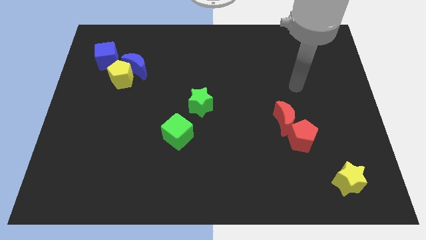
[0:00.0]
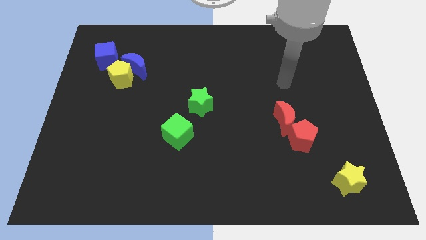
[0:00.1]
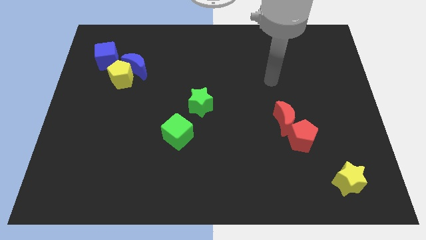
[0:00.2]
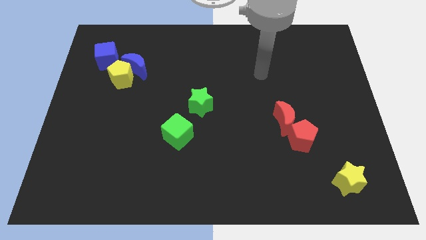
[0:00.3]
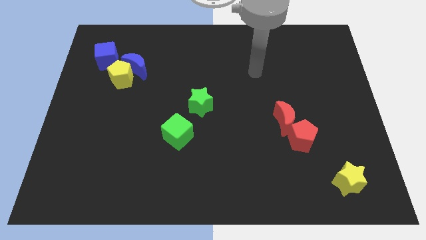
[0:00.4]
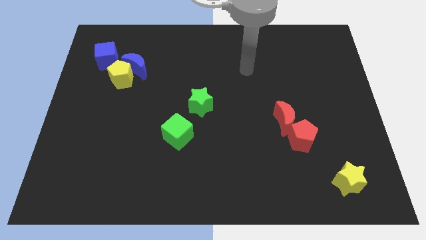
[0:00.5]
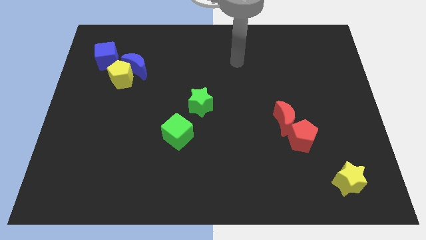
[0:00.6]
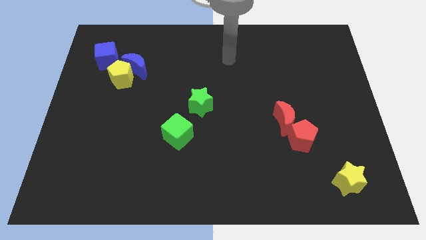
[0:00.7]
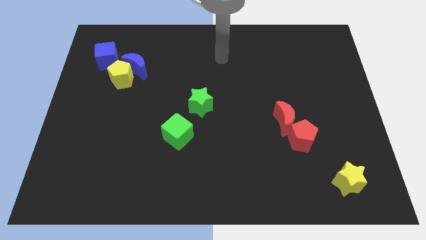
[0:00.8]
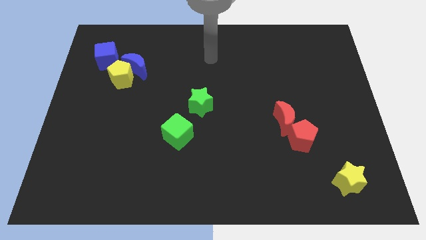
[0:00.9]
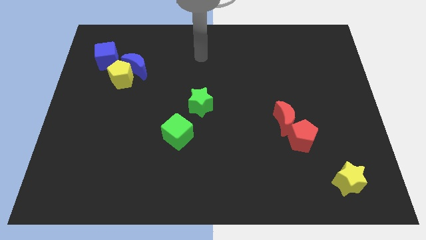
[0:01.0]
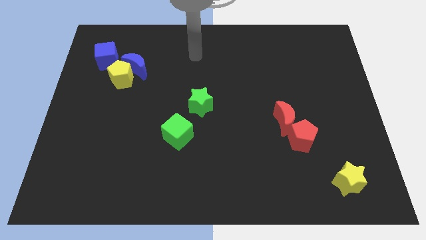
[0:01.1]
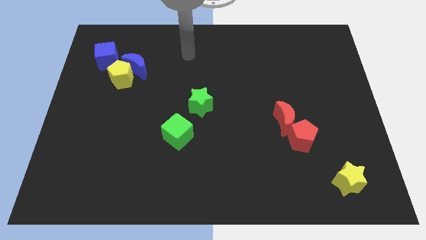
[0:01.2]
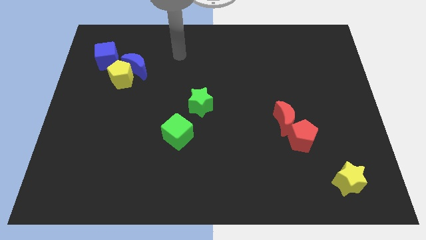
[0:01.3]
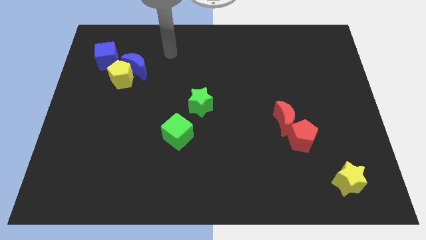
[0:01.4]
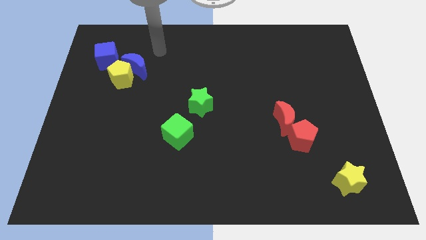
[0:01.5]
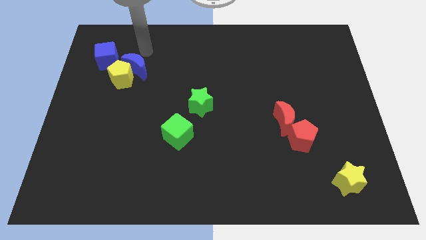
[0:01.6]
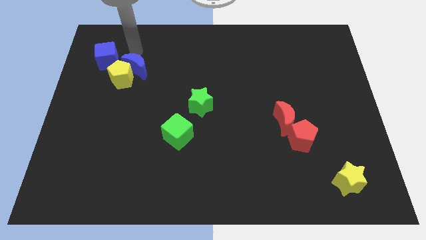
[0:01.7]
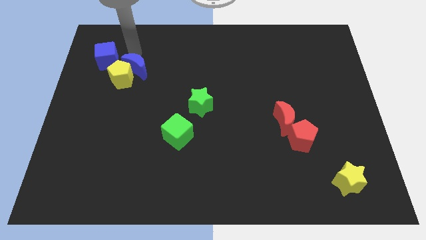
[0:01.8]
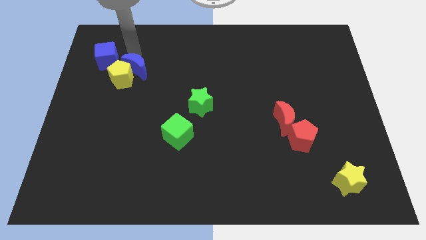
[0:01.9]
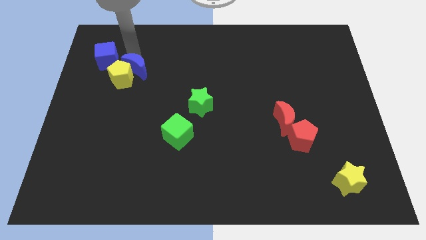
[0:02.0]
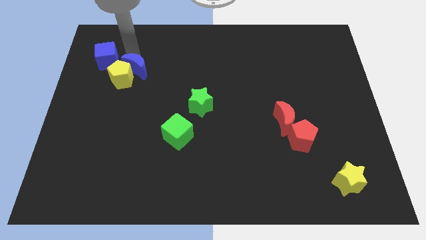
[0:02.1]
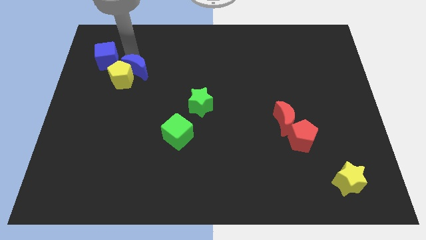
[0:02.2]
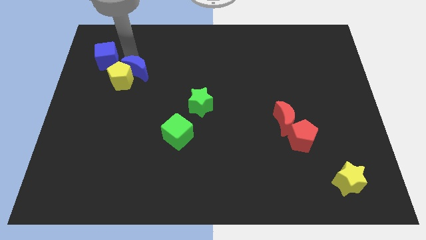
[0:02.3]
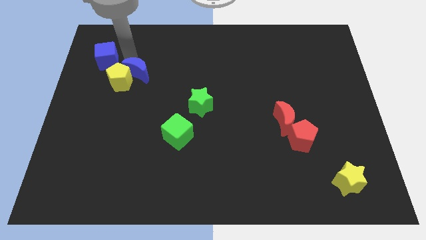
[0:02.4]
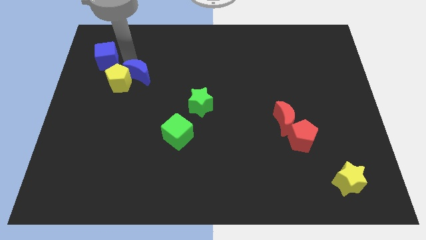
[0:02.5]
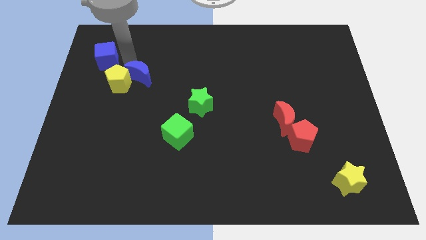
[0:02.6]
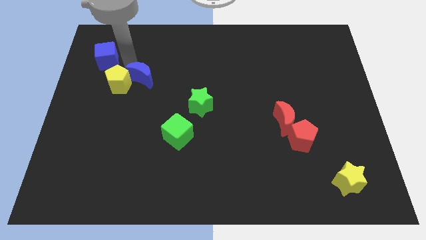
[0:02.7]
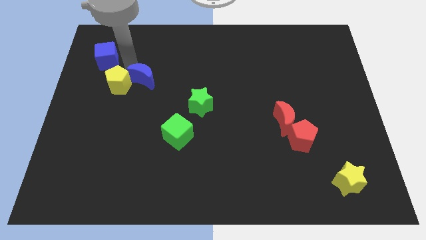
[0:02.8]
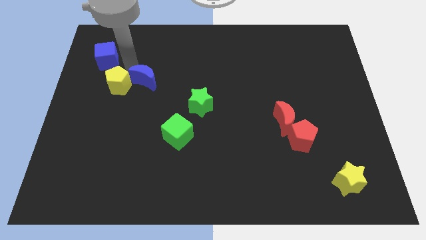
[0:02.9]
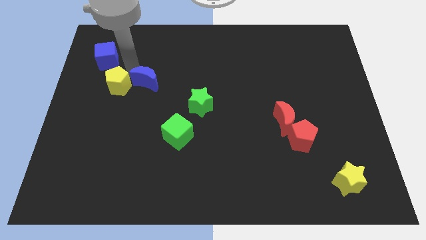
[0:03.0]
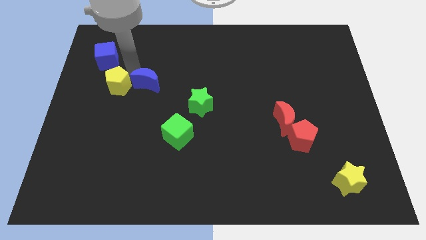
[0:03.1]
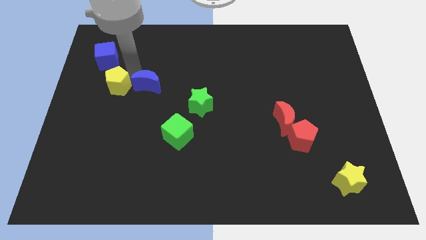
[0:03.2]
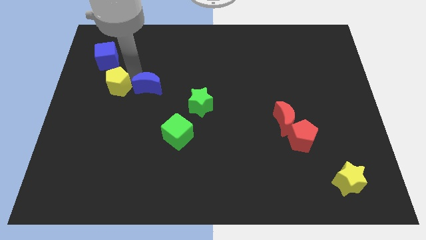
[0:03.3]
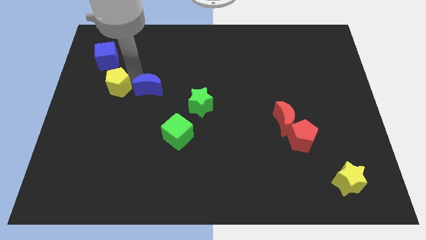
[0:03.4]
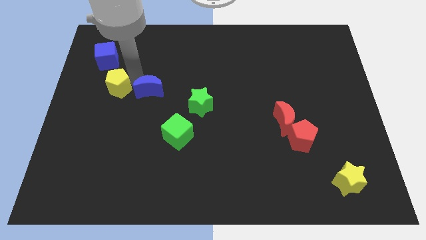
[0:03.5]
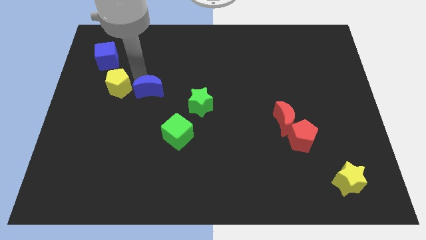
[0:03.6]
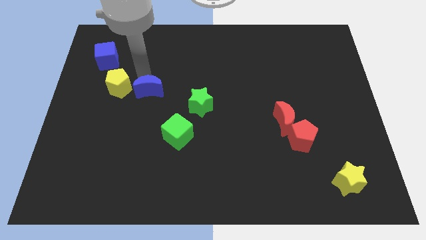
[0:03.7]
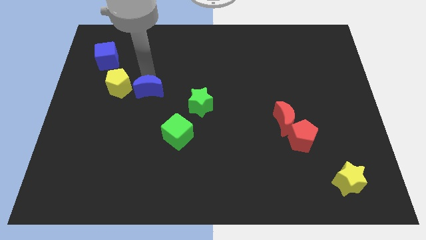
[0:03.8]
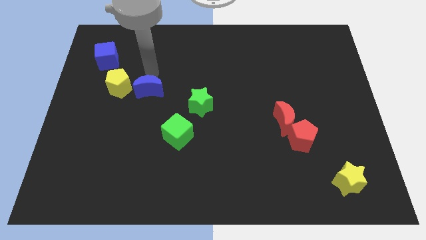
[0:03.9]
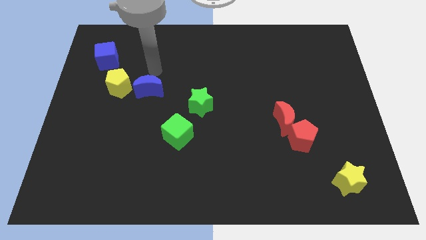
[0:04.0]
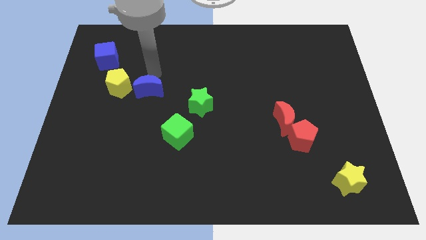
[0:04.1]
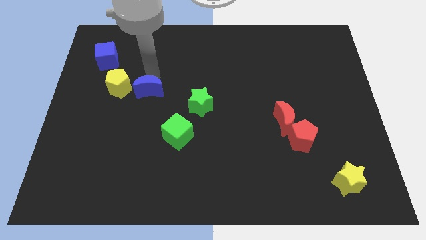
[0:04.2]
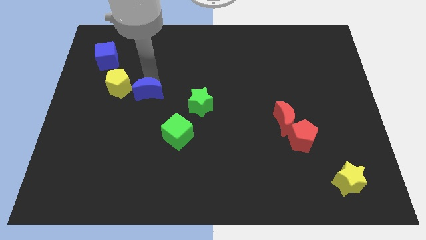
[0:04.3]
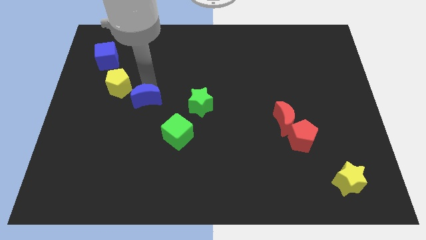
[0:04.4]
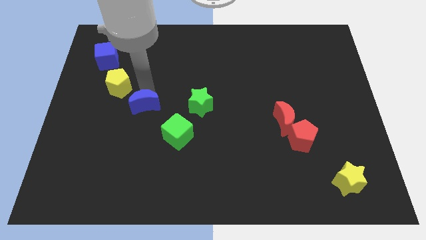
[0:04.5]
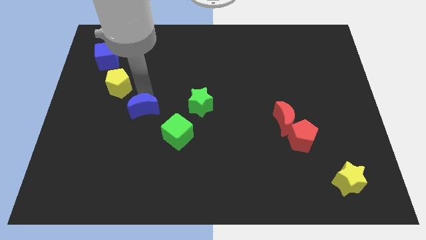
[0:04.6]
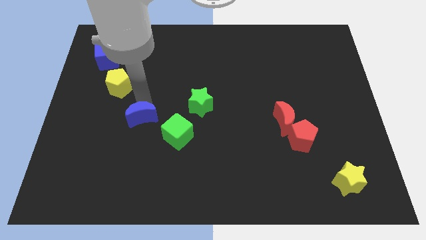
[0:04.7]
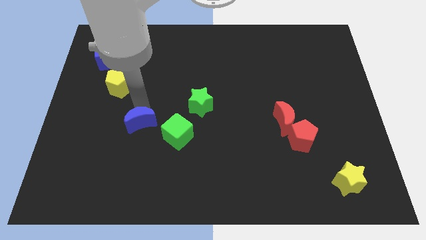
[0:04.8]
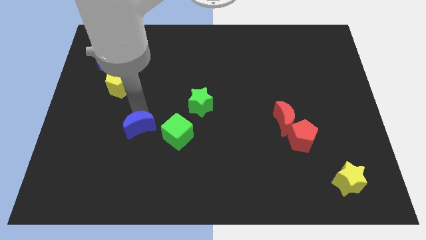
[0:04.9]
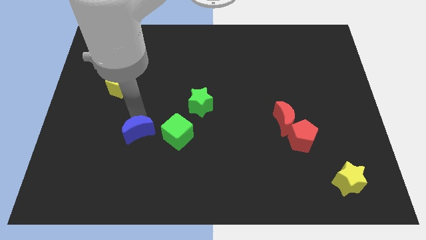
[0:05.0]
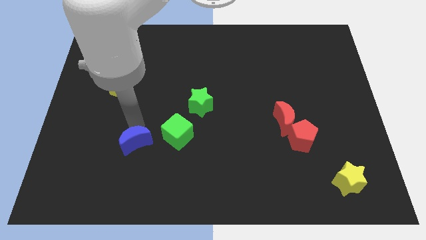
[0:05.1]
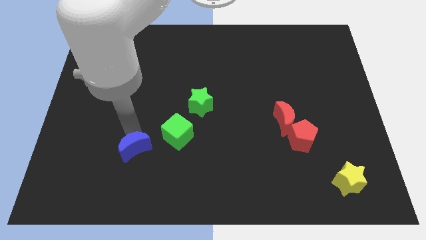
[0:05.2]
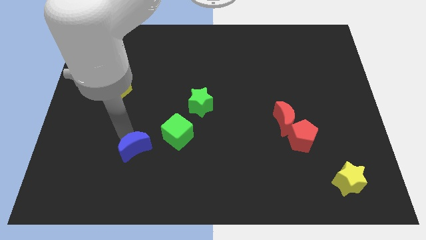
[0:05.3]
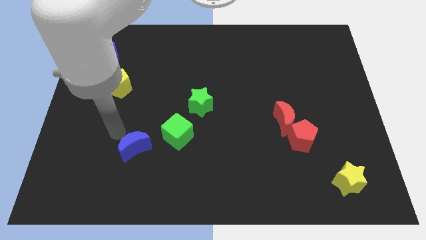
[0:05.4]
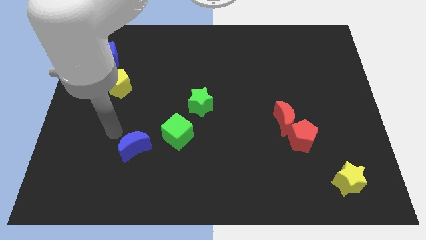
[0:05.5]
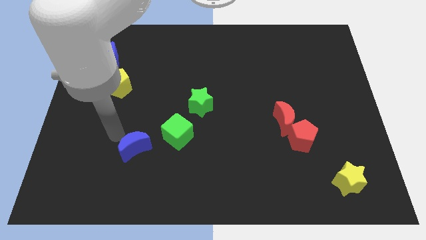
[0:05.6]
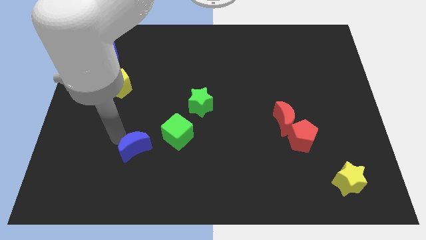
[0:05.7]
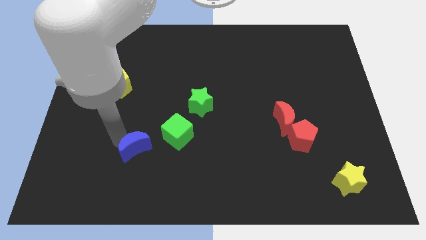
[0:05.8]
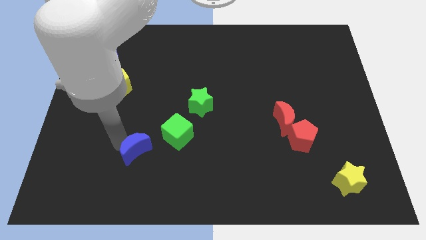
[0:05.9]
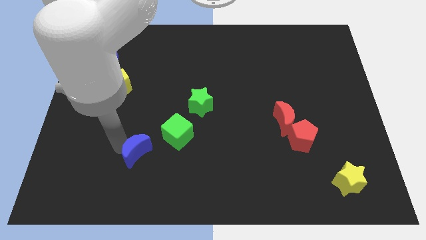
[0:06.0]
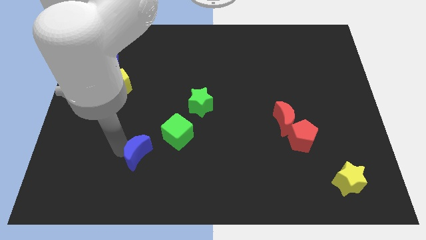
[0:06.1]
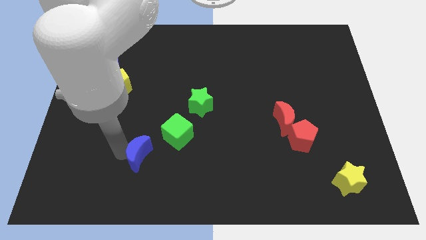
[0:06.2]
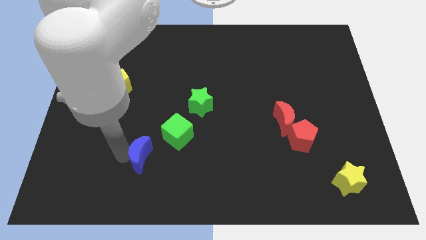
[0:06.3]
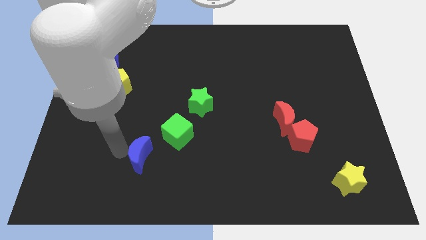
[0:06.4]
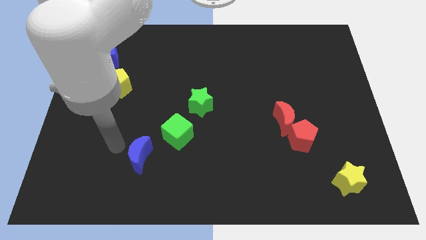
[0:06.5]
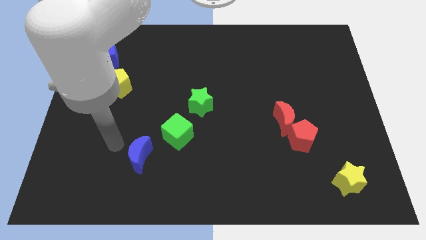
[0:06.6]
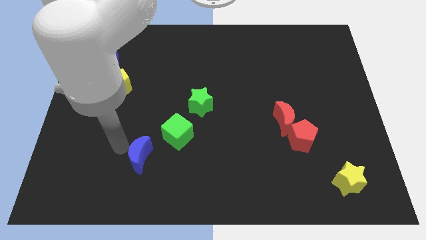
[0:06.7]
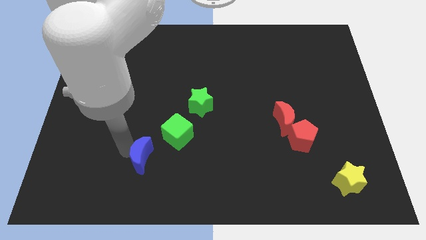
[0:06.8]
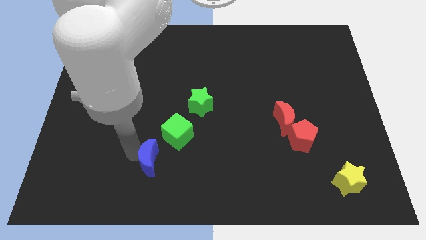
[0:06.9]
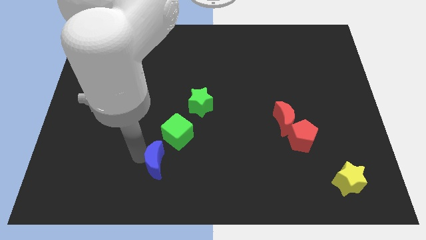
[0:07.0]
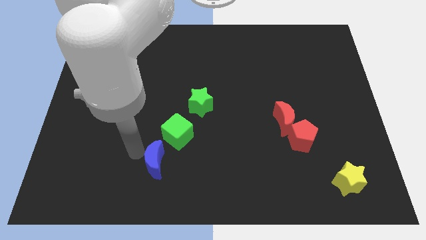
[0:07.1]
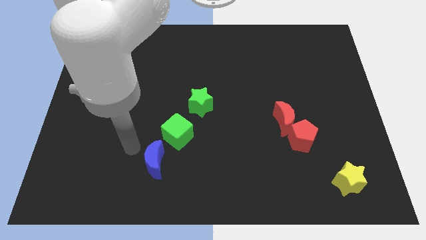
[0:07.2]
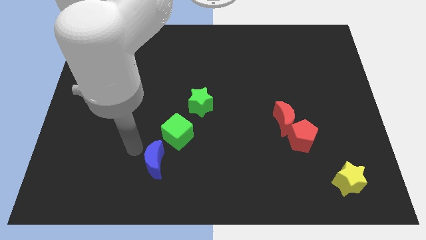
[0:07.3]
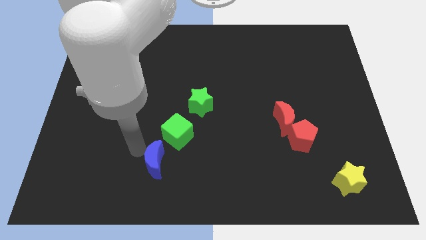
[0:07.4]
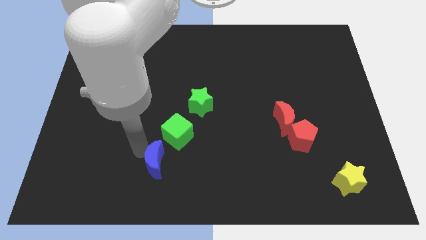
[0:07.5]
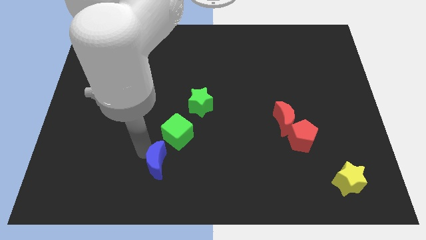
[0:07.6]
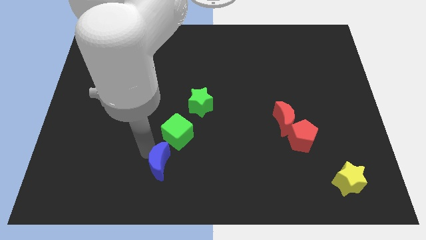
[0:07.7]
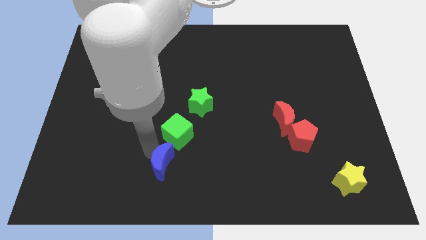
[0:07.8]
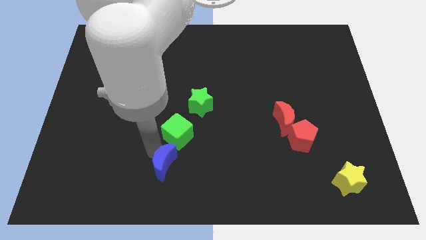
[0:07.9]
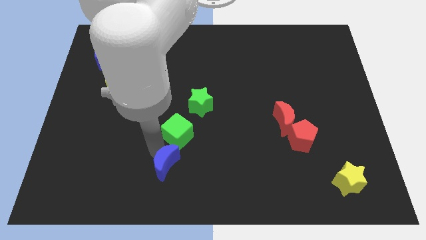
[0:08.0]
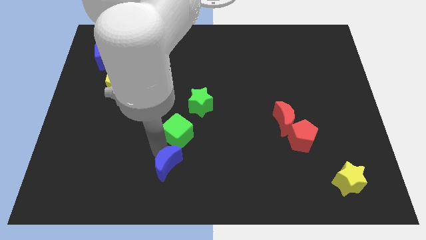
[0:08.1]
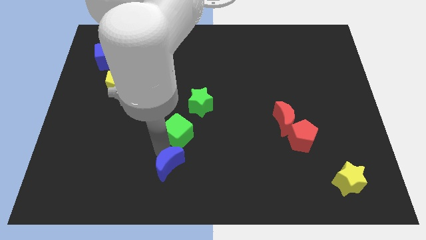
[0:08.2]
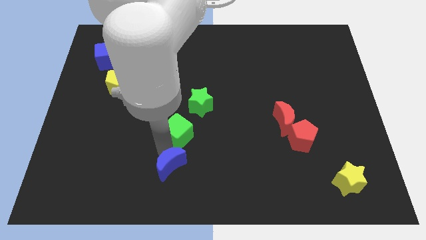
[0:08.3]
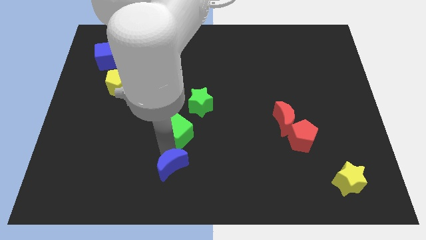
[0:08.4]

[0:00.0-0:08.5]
move the blue moon to the bottom
